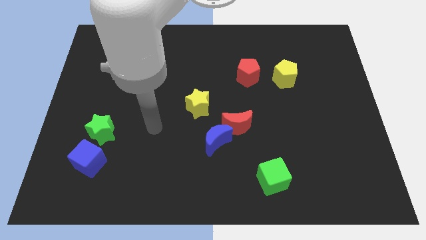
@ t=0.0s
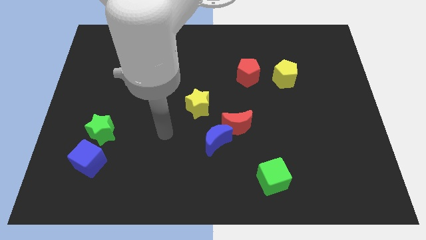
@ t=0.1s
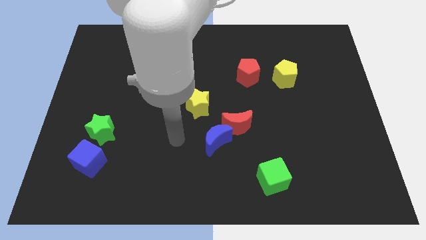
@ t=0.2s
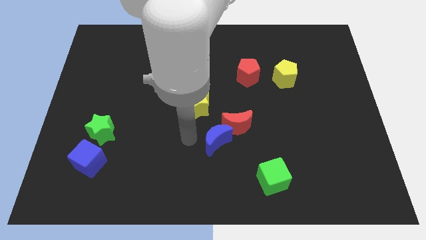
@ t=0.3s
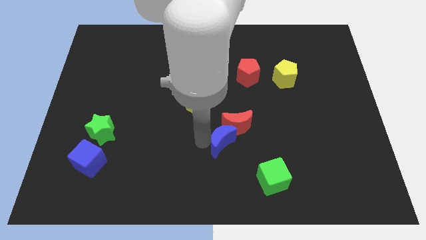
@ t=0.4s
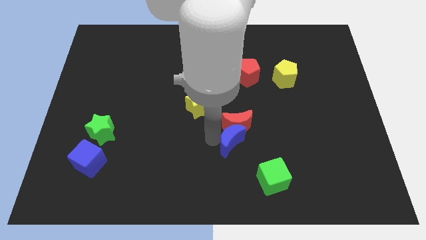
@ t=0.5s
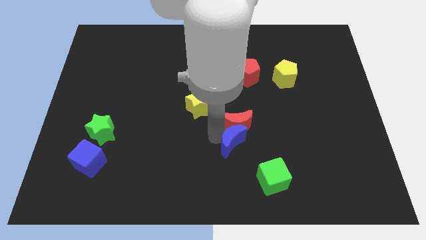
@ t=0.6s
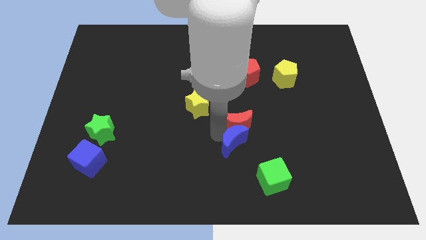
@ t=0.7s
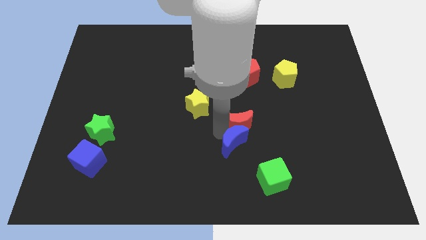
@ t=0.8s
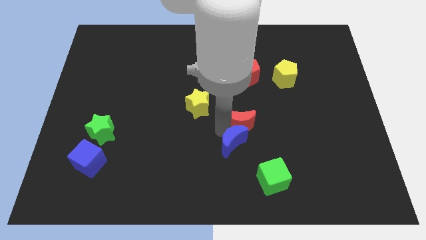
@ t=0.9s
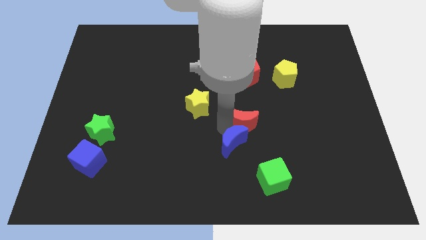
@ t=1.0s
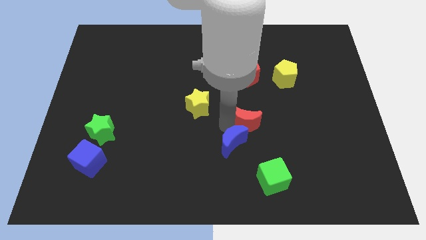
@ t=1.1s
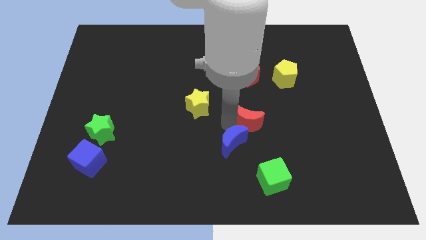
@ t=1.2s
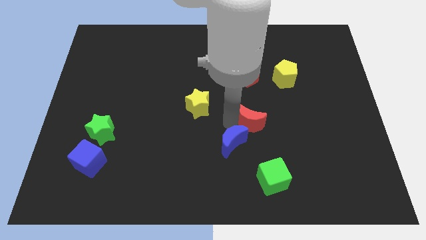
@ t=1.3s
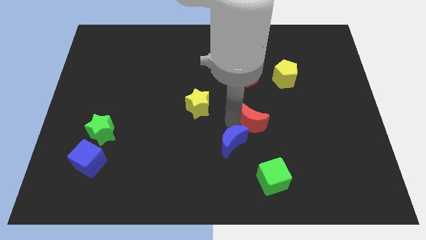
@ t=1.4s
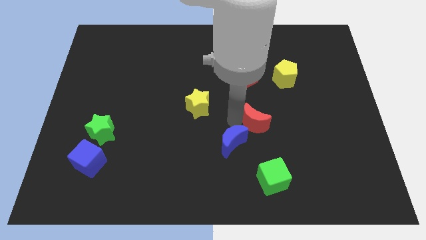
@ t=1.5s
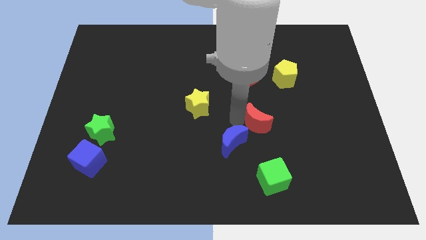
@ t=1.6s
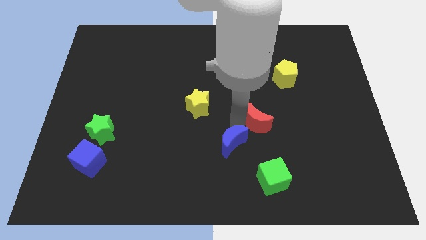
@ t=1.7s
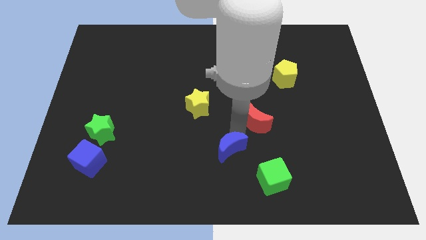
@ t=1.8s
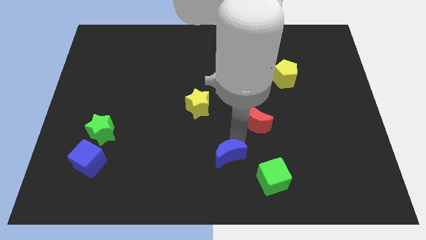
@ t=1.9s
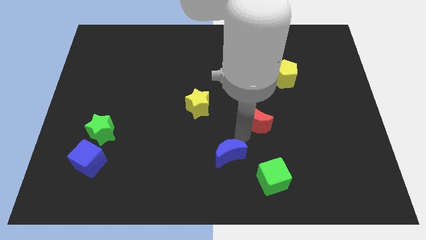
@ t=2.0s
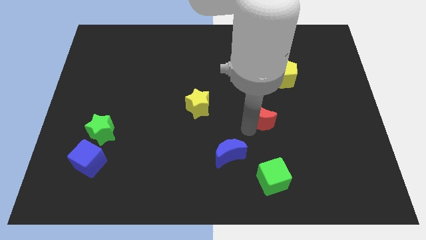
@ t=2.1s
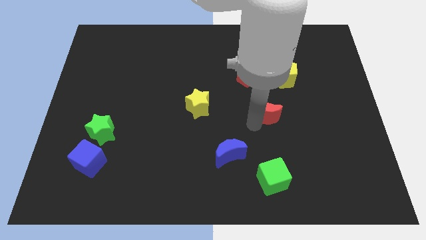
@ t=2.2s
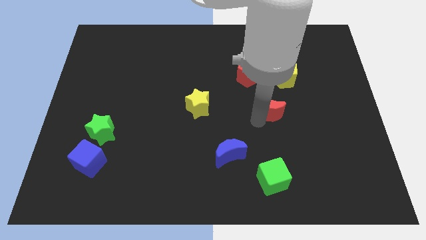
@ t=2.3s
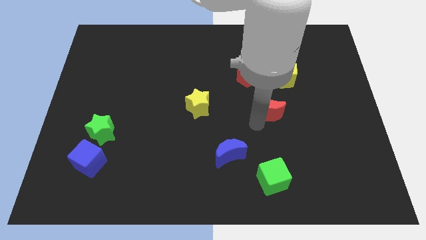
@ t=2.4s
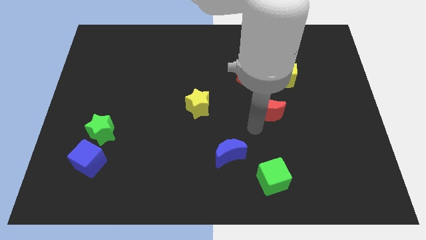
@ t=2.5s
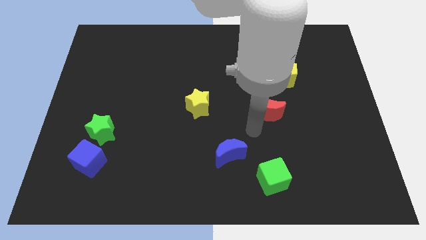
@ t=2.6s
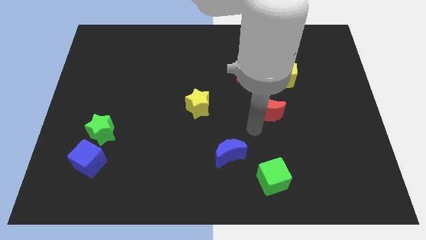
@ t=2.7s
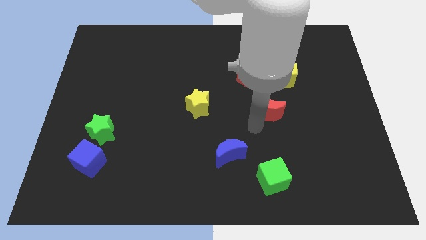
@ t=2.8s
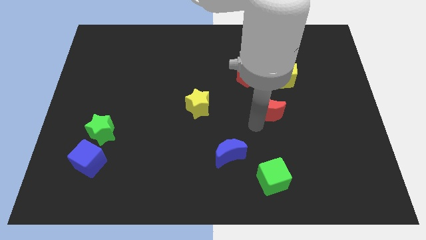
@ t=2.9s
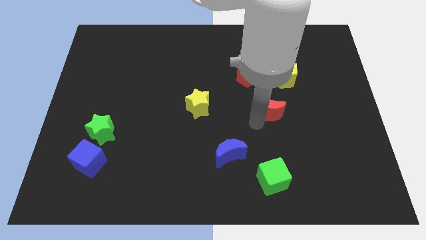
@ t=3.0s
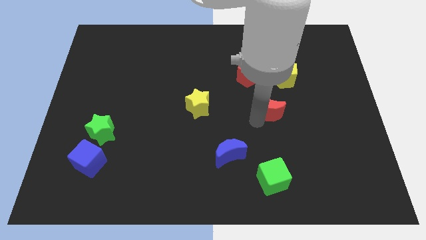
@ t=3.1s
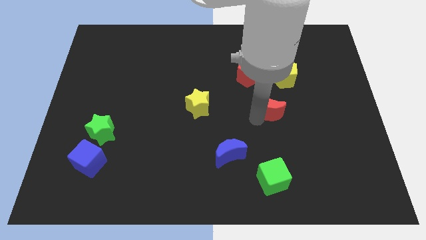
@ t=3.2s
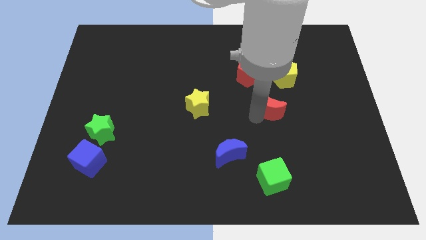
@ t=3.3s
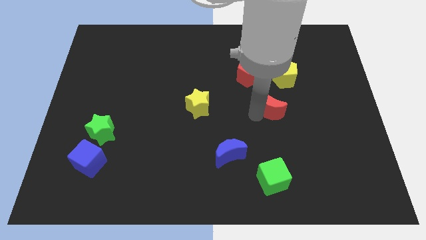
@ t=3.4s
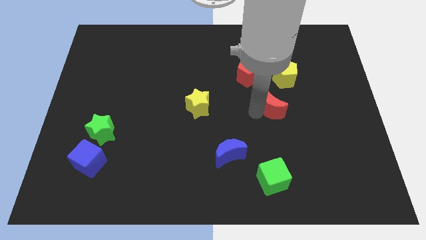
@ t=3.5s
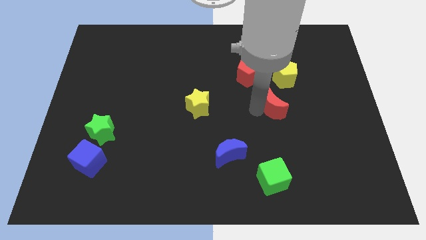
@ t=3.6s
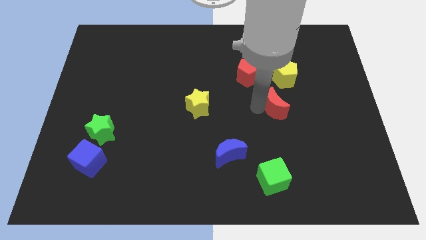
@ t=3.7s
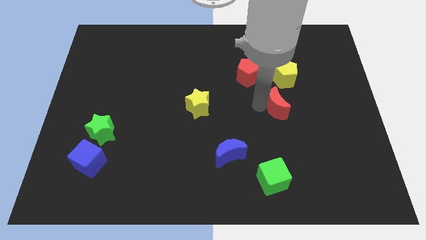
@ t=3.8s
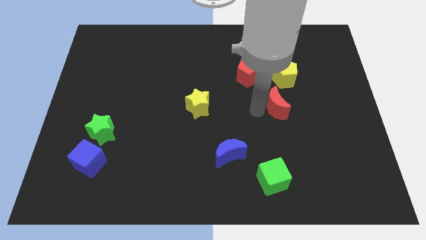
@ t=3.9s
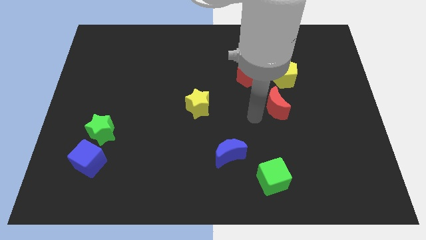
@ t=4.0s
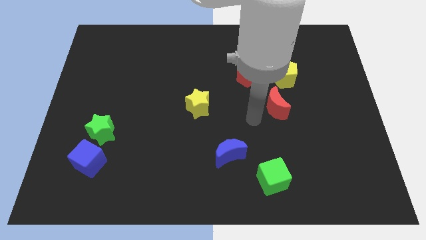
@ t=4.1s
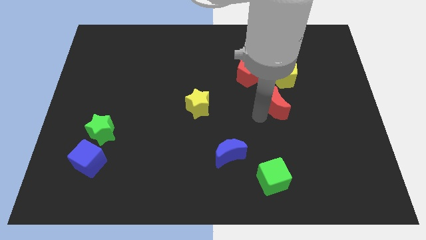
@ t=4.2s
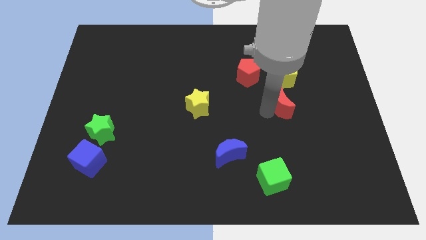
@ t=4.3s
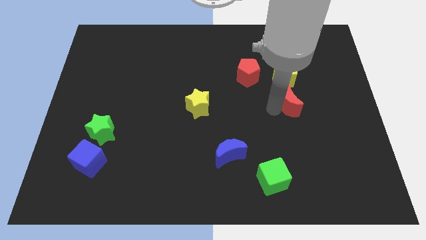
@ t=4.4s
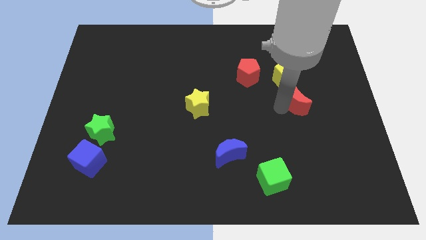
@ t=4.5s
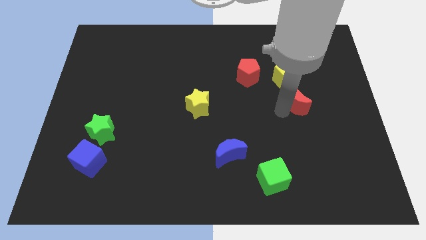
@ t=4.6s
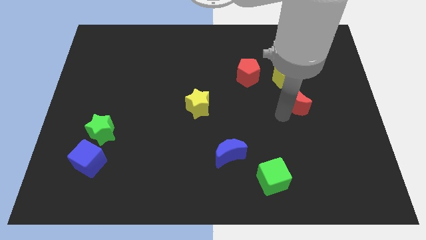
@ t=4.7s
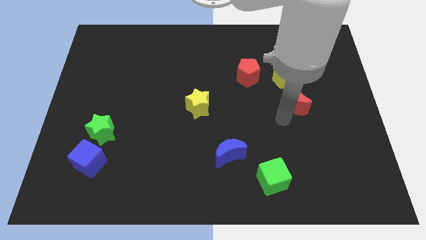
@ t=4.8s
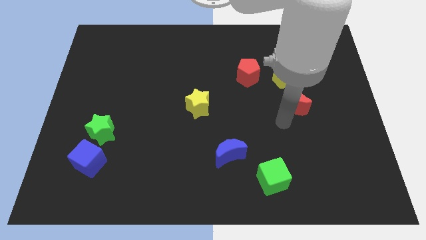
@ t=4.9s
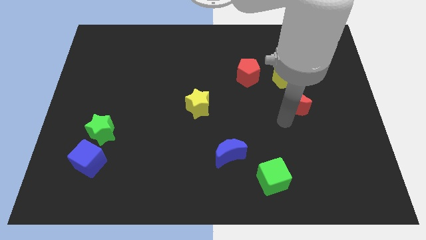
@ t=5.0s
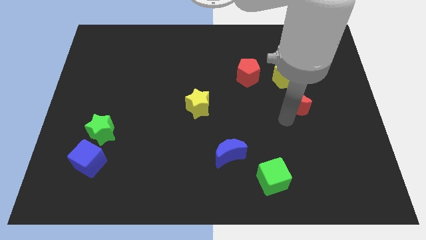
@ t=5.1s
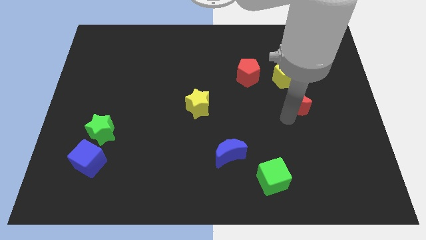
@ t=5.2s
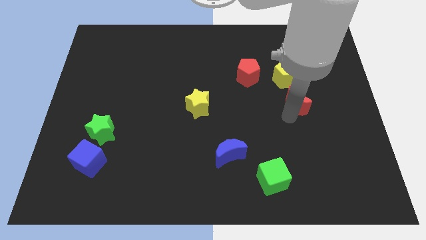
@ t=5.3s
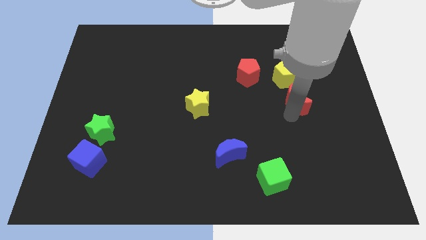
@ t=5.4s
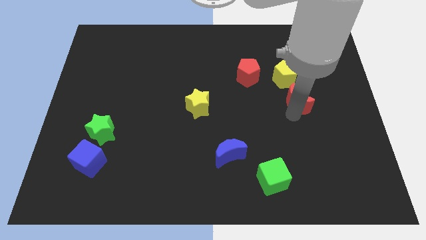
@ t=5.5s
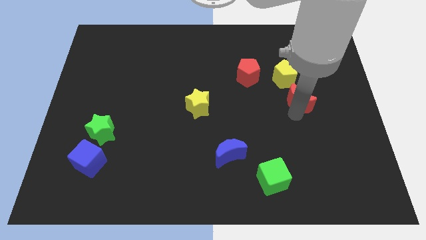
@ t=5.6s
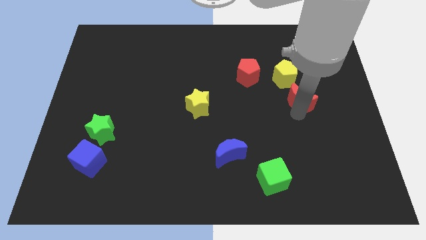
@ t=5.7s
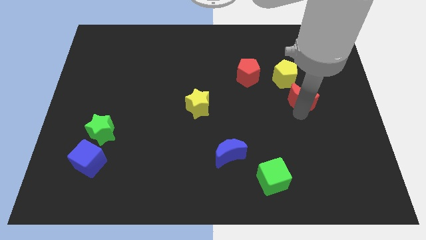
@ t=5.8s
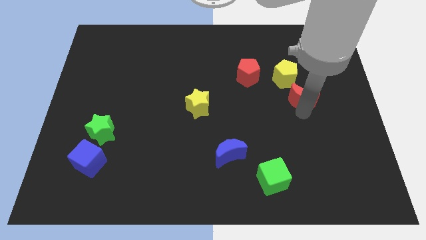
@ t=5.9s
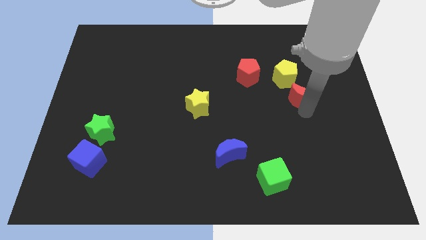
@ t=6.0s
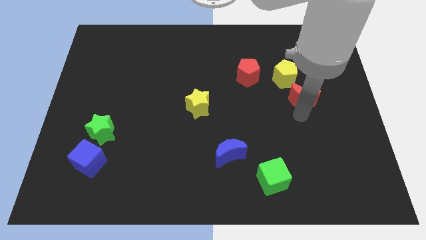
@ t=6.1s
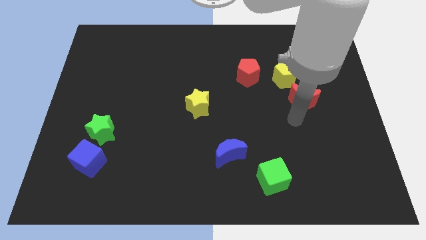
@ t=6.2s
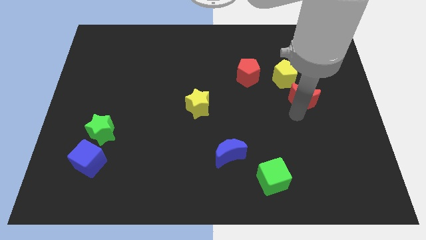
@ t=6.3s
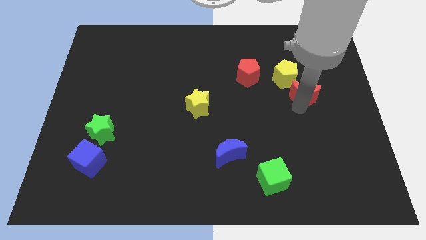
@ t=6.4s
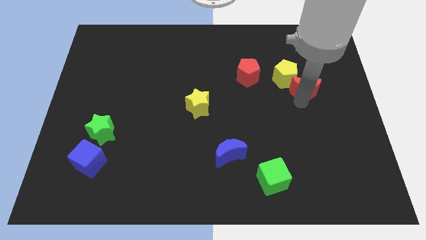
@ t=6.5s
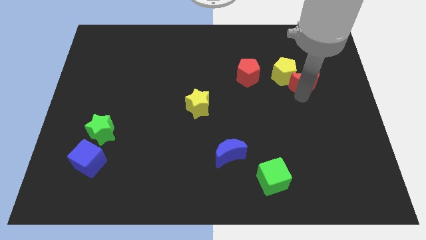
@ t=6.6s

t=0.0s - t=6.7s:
slide the red moon diagonally up and to the right

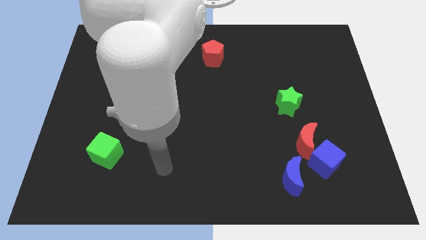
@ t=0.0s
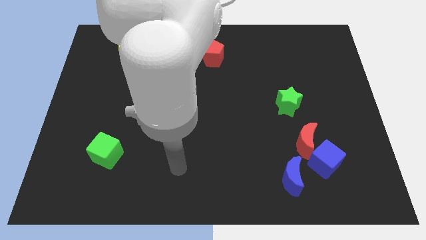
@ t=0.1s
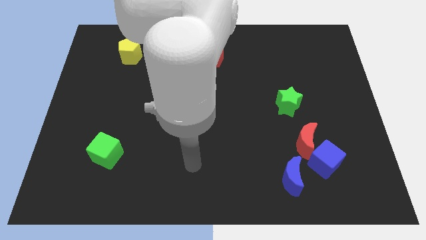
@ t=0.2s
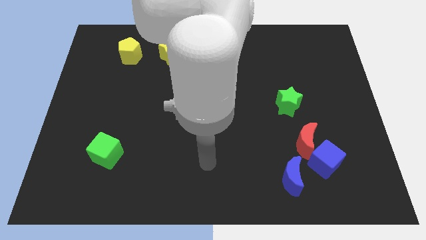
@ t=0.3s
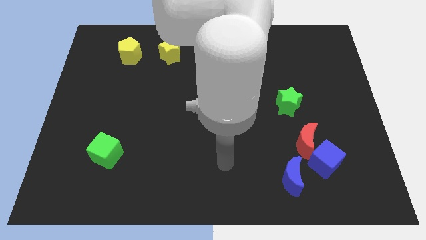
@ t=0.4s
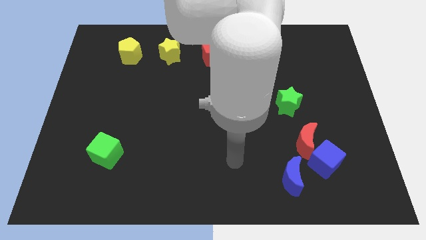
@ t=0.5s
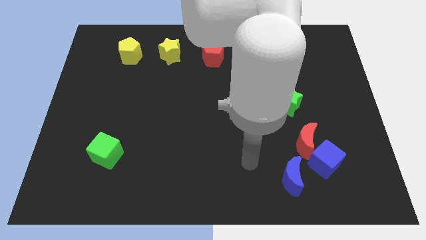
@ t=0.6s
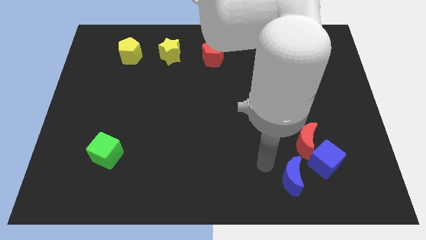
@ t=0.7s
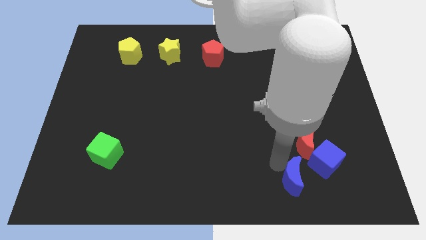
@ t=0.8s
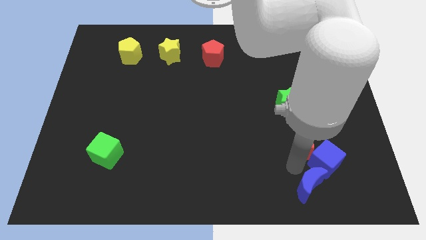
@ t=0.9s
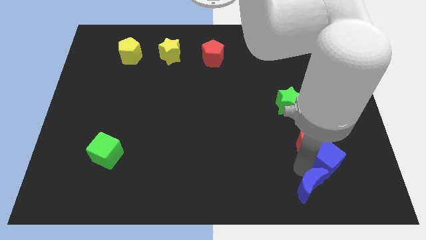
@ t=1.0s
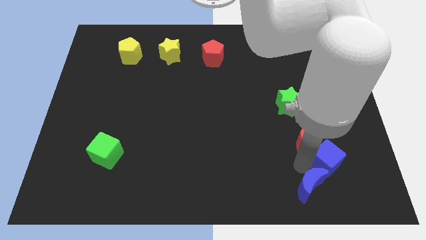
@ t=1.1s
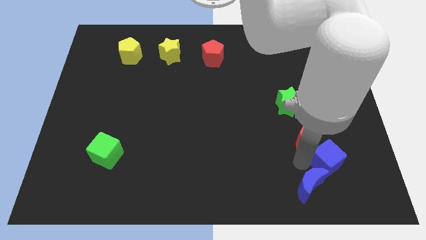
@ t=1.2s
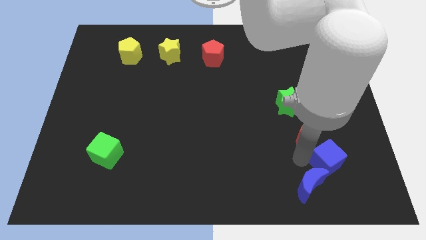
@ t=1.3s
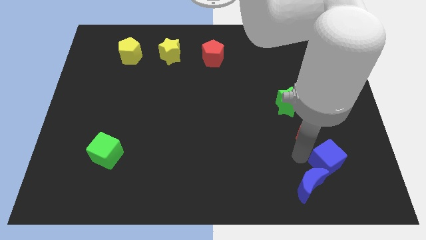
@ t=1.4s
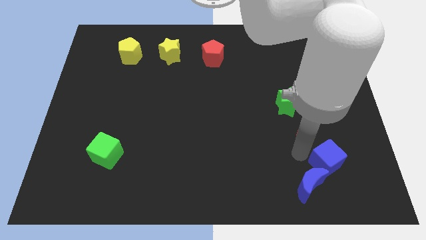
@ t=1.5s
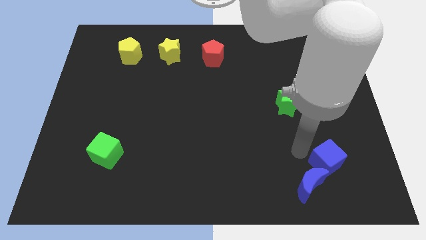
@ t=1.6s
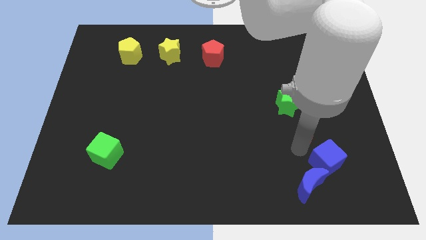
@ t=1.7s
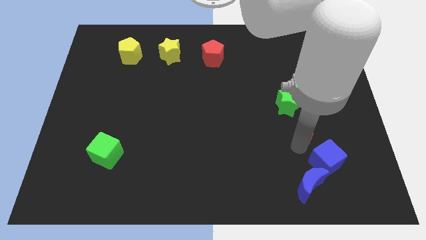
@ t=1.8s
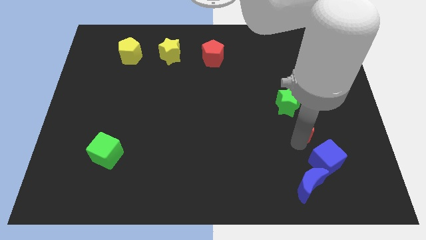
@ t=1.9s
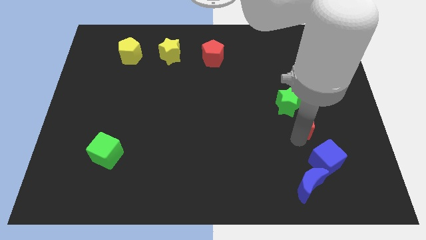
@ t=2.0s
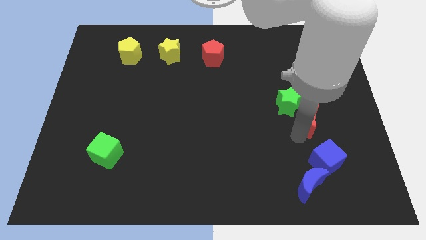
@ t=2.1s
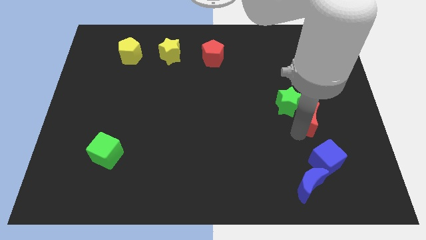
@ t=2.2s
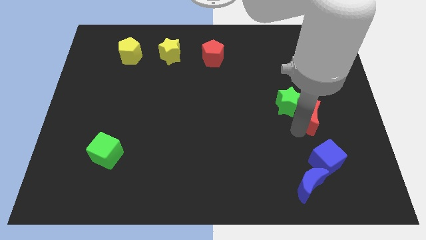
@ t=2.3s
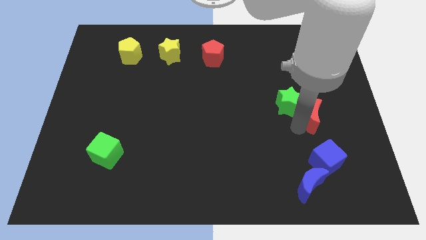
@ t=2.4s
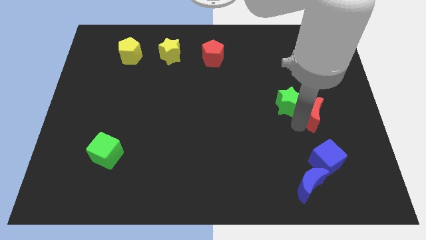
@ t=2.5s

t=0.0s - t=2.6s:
push the red moon up somewhat
